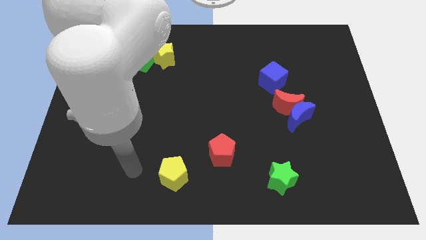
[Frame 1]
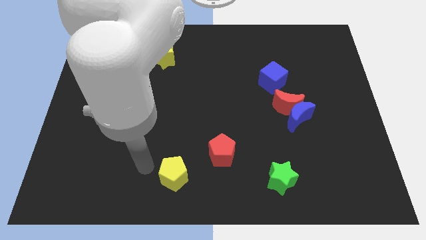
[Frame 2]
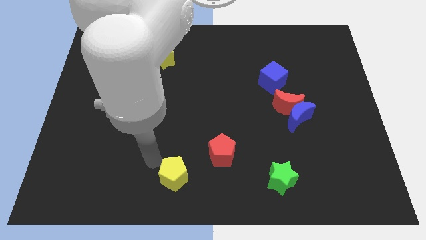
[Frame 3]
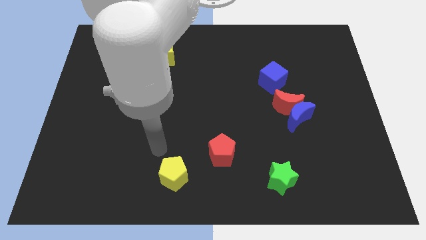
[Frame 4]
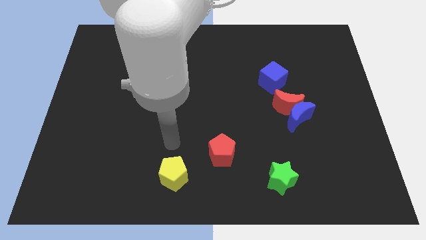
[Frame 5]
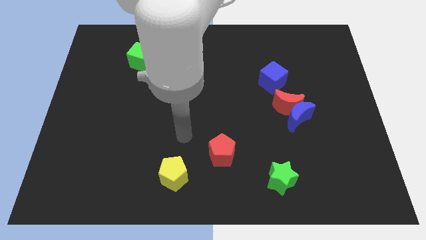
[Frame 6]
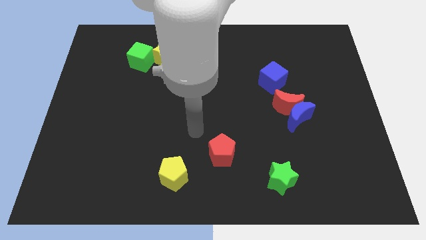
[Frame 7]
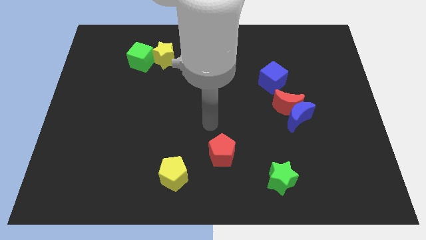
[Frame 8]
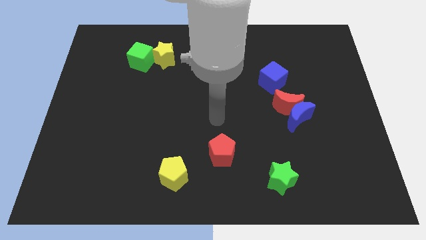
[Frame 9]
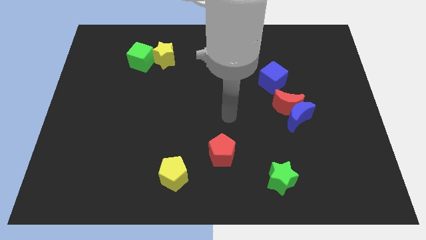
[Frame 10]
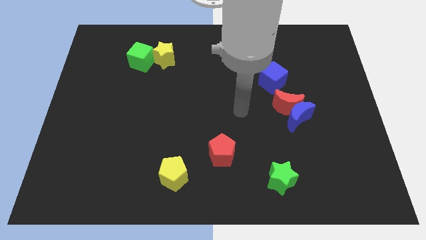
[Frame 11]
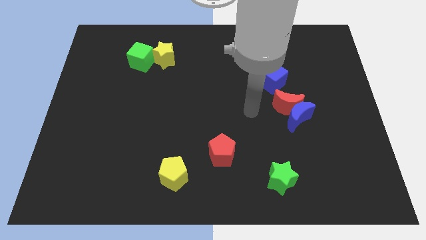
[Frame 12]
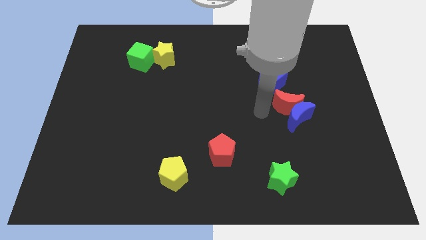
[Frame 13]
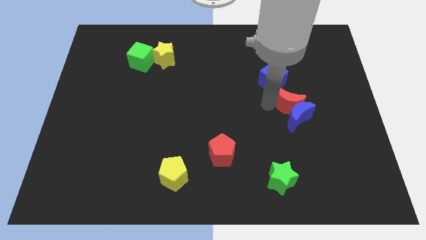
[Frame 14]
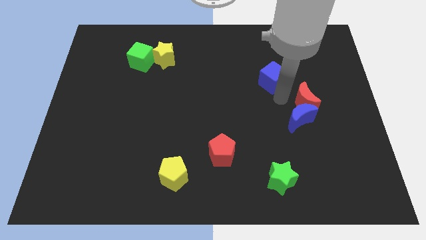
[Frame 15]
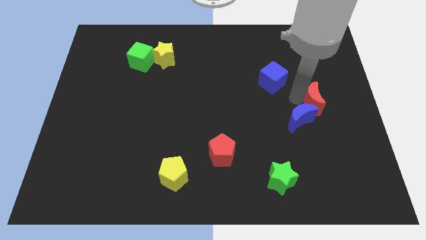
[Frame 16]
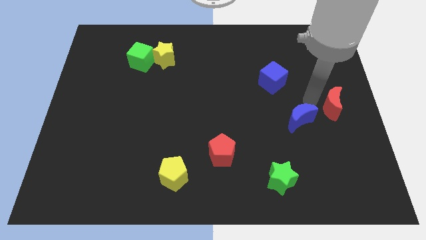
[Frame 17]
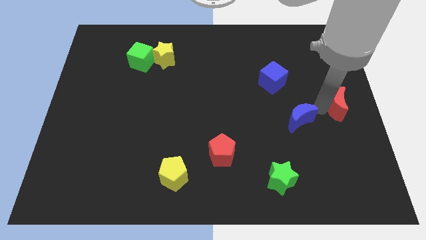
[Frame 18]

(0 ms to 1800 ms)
pull the blue moon apart from the red moon

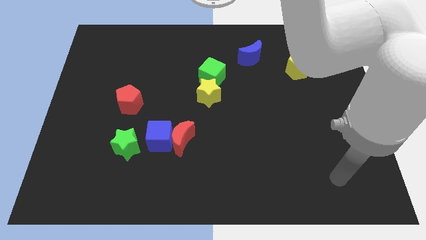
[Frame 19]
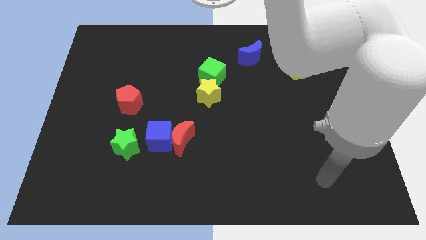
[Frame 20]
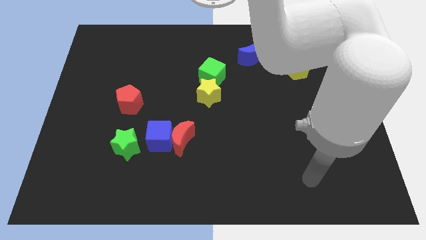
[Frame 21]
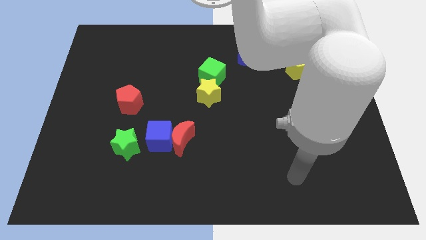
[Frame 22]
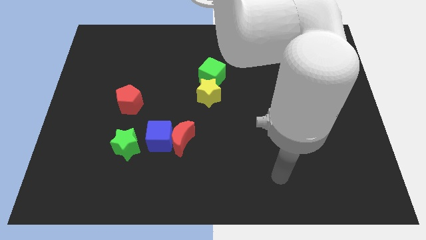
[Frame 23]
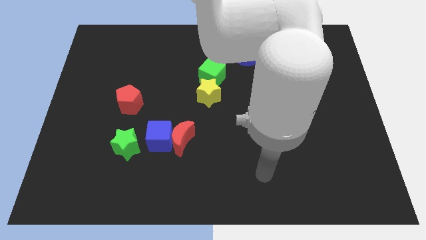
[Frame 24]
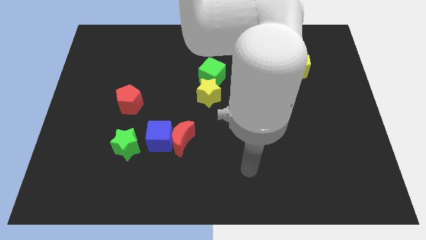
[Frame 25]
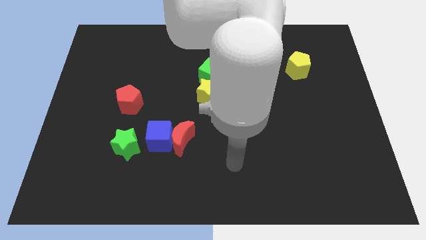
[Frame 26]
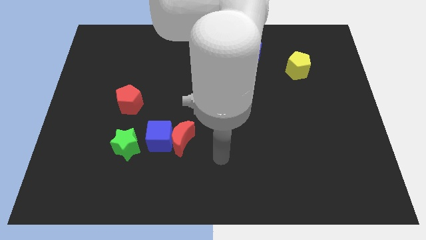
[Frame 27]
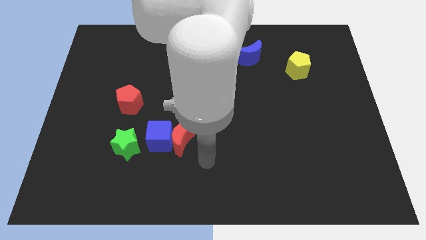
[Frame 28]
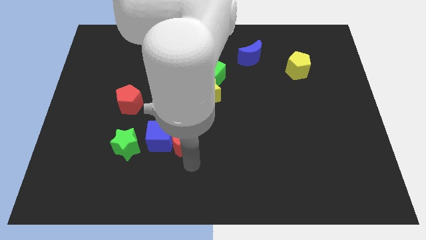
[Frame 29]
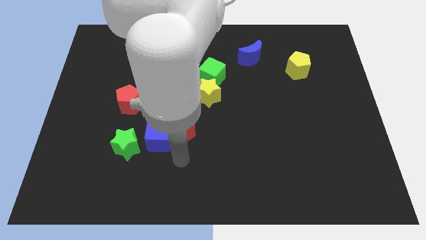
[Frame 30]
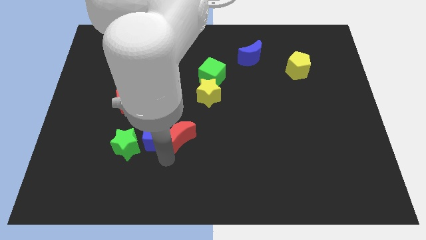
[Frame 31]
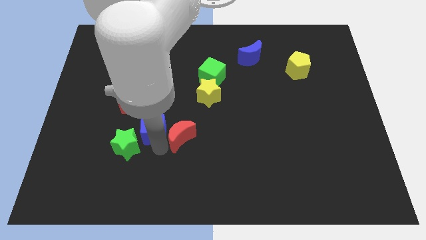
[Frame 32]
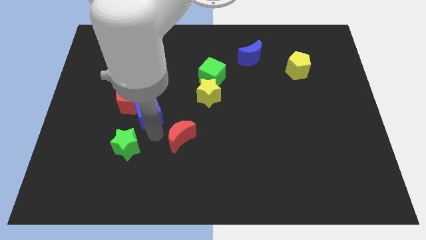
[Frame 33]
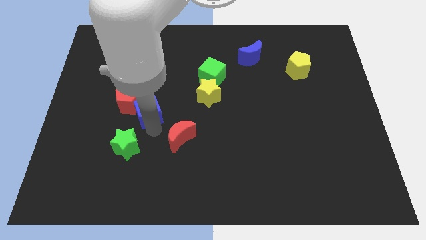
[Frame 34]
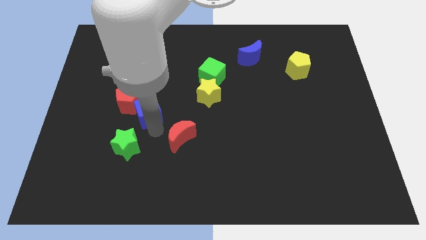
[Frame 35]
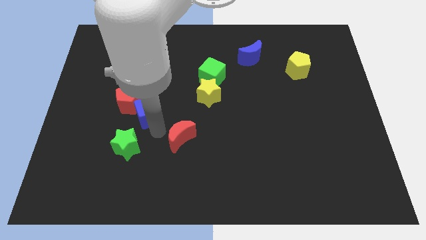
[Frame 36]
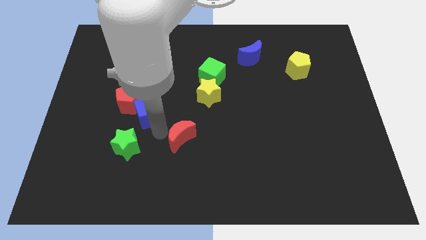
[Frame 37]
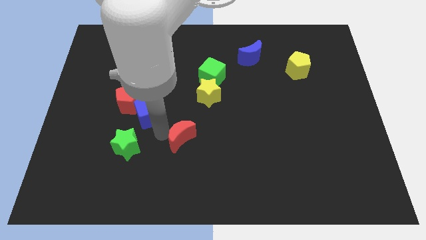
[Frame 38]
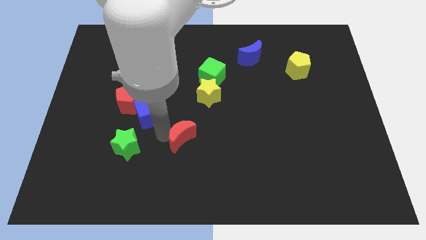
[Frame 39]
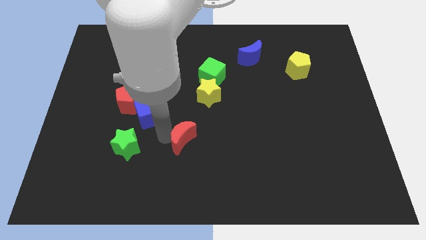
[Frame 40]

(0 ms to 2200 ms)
pull the red moon apart from the blue cube

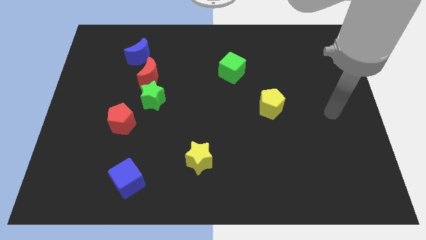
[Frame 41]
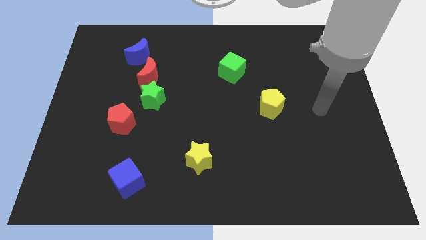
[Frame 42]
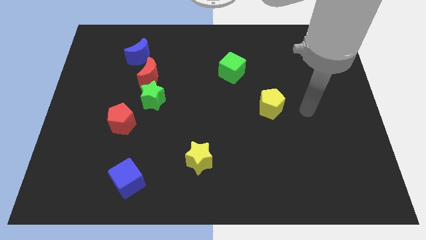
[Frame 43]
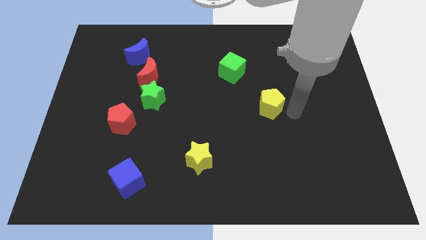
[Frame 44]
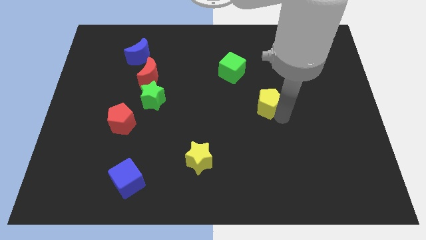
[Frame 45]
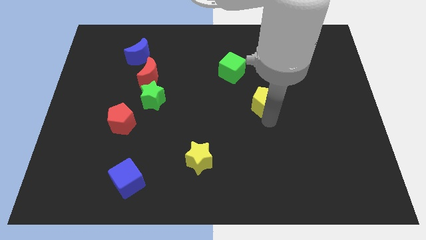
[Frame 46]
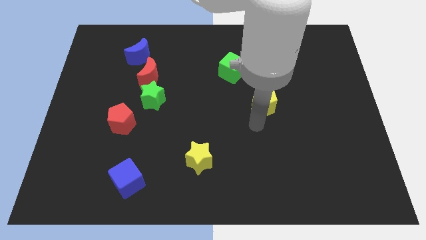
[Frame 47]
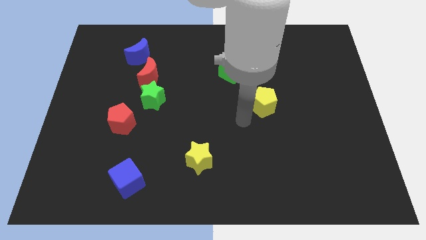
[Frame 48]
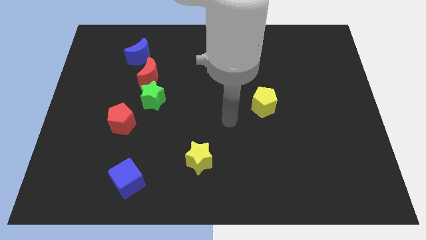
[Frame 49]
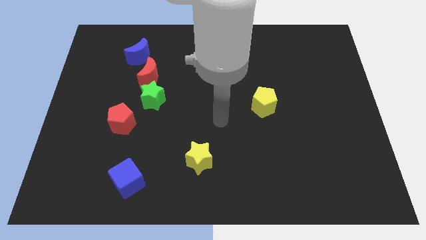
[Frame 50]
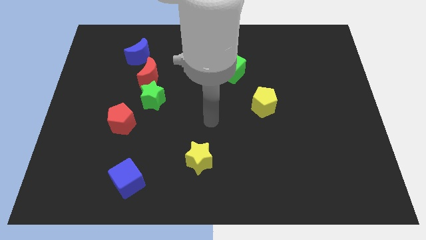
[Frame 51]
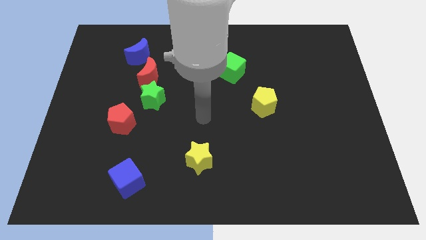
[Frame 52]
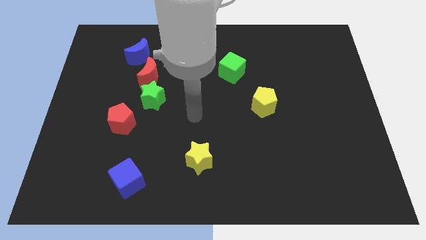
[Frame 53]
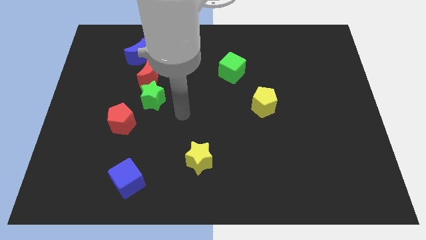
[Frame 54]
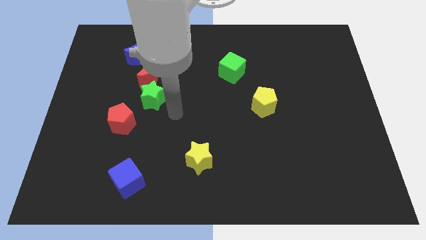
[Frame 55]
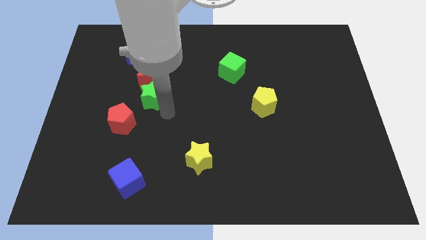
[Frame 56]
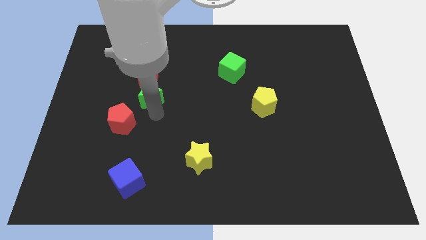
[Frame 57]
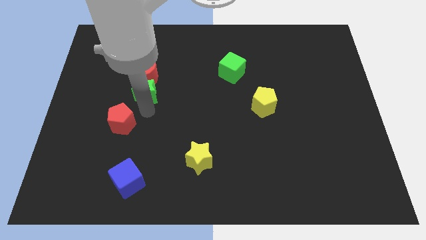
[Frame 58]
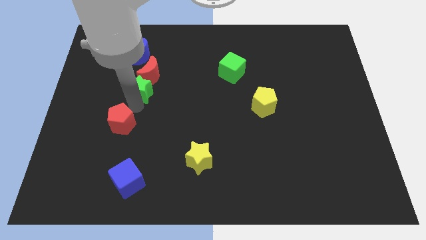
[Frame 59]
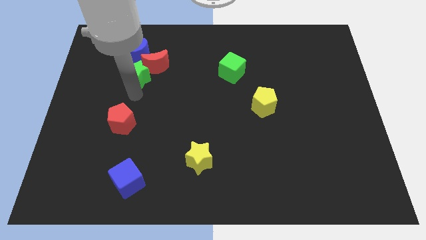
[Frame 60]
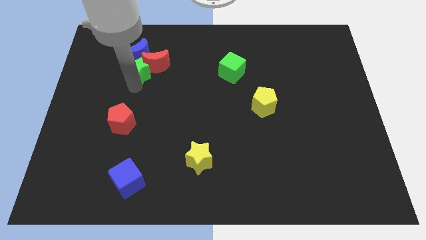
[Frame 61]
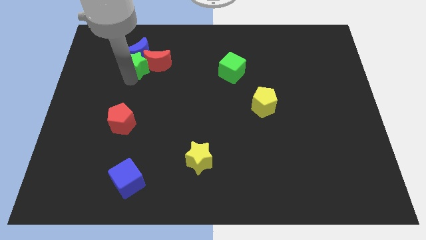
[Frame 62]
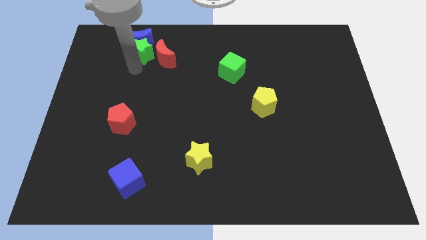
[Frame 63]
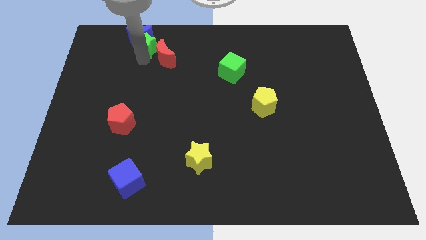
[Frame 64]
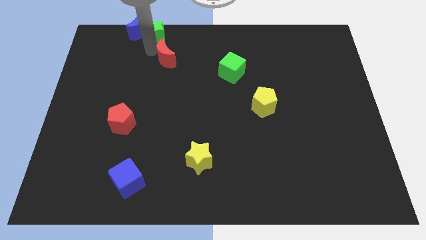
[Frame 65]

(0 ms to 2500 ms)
pull the red moon apart from the green star and blue moon

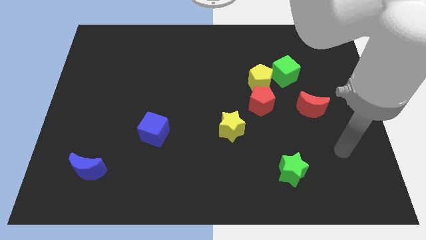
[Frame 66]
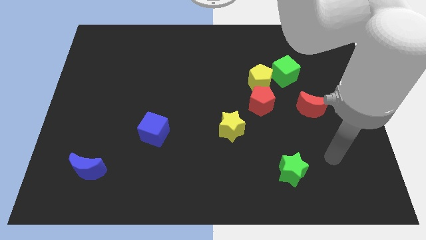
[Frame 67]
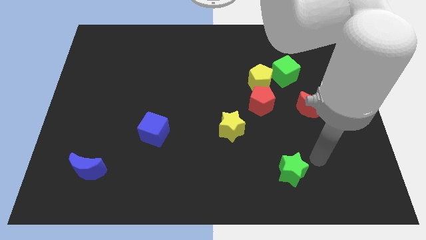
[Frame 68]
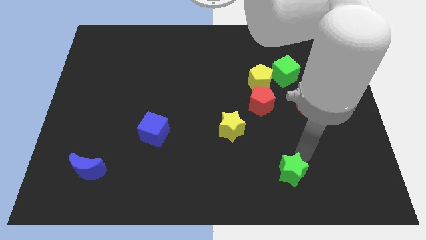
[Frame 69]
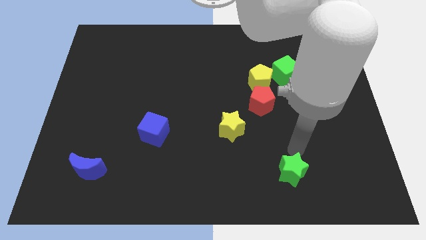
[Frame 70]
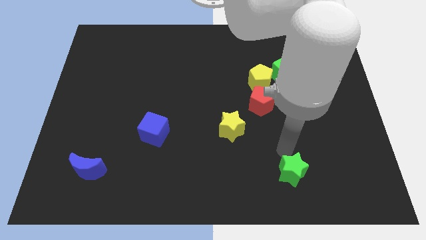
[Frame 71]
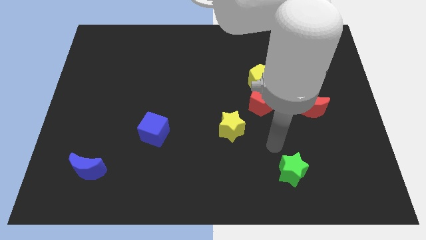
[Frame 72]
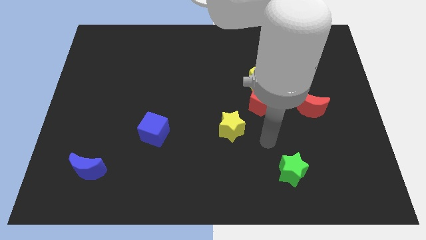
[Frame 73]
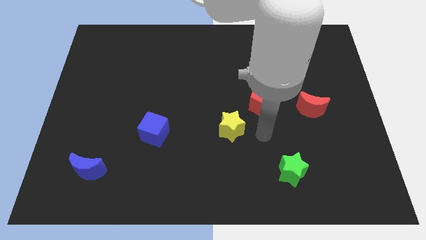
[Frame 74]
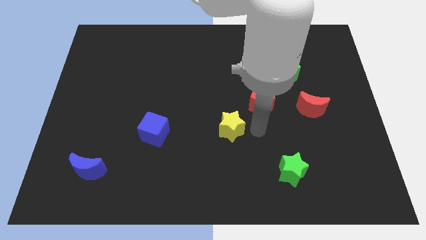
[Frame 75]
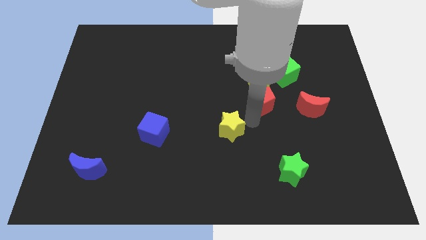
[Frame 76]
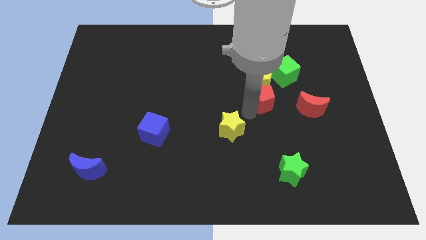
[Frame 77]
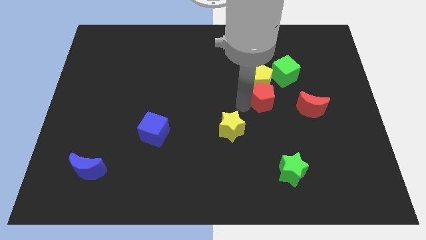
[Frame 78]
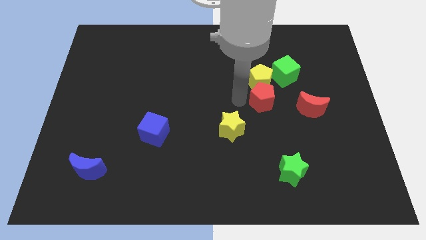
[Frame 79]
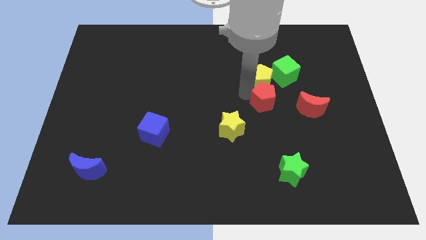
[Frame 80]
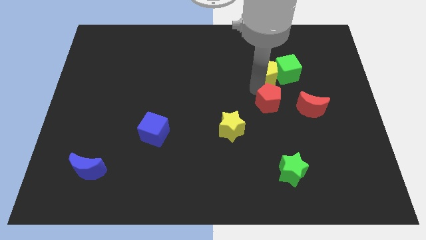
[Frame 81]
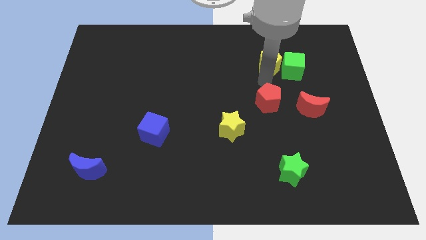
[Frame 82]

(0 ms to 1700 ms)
move the red pentagon away from the yellow pentagon

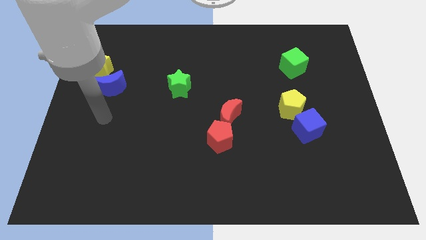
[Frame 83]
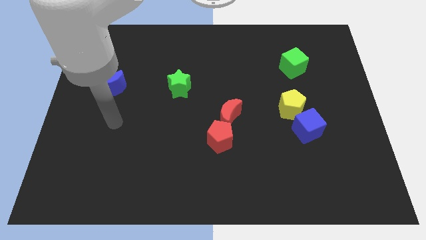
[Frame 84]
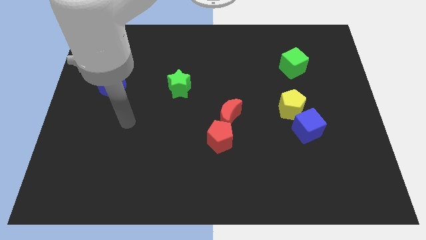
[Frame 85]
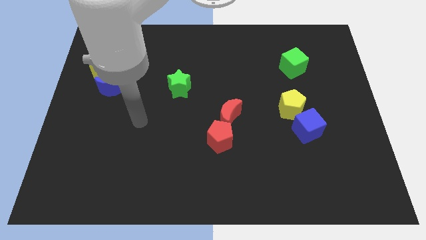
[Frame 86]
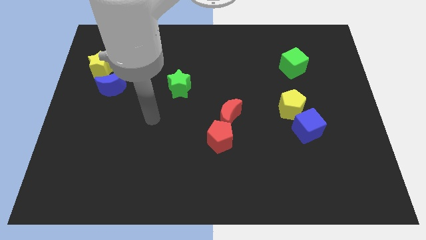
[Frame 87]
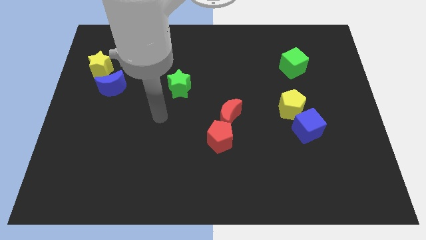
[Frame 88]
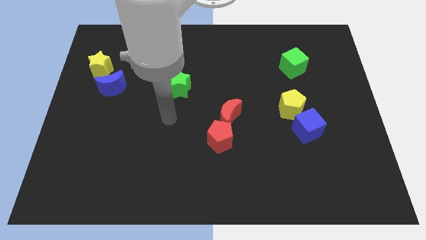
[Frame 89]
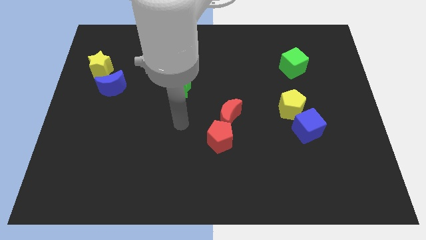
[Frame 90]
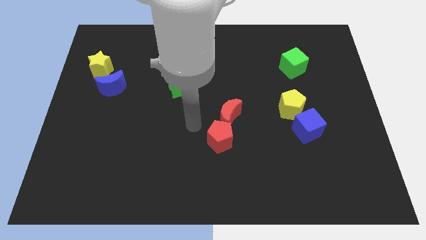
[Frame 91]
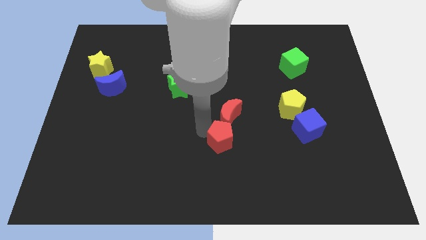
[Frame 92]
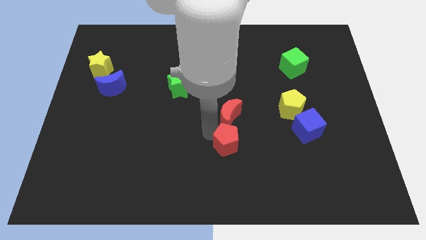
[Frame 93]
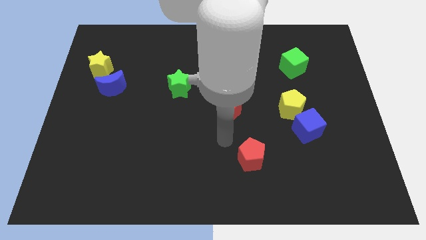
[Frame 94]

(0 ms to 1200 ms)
move the red moon away from the red pentagon
